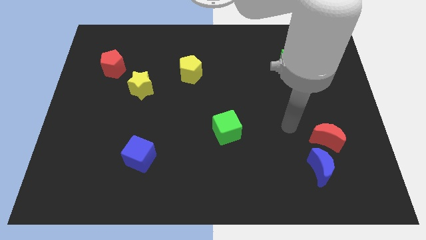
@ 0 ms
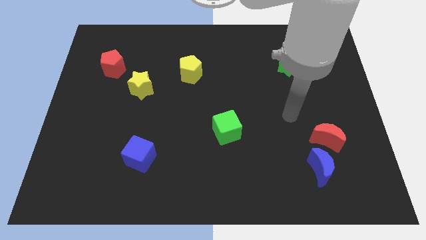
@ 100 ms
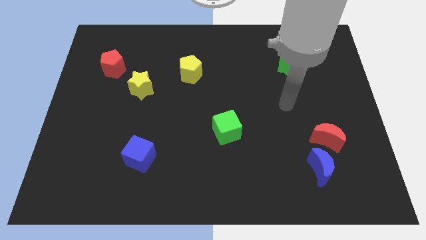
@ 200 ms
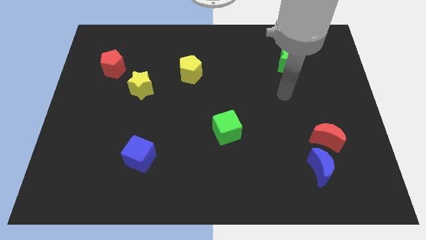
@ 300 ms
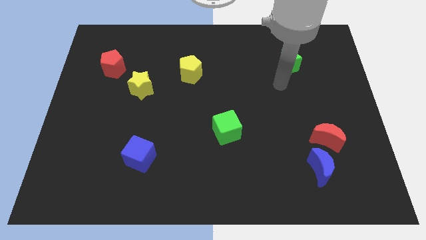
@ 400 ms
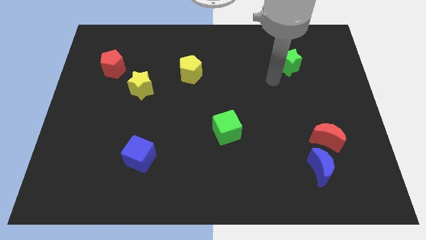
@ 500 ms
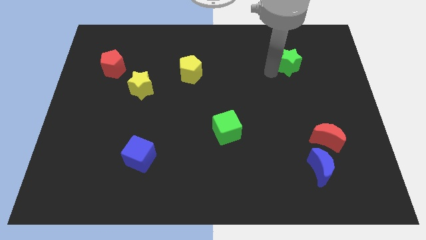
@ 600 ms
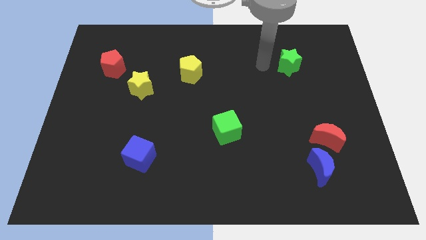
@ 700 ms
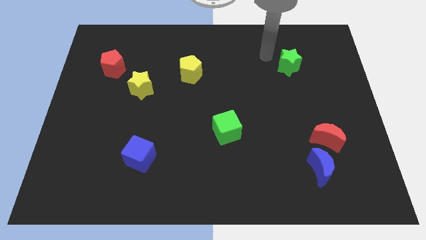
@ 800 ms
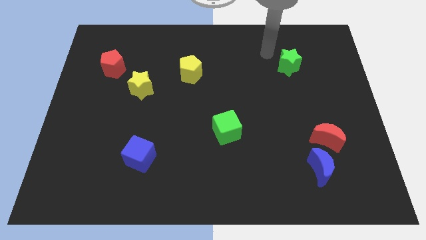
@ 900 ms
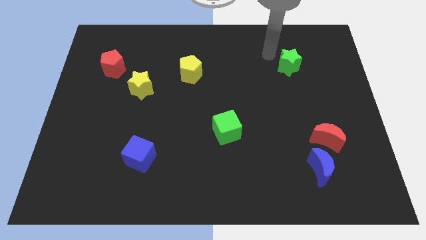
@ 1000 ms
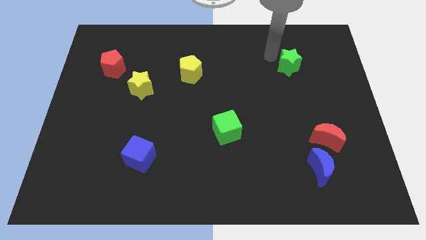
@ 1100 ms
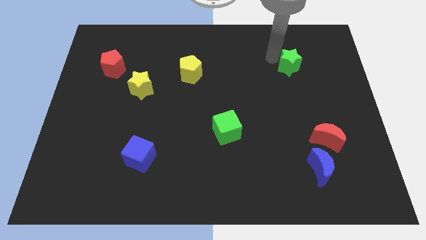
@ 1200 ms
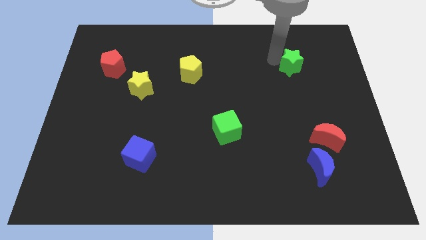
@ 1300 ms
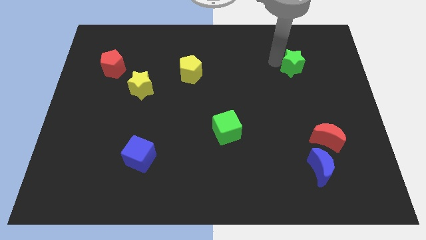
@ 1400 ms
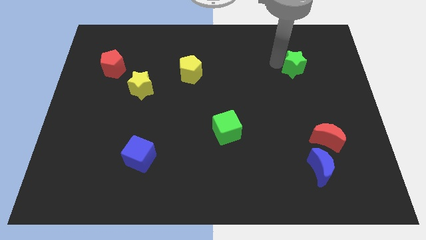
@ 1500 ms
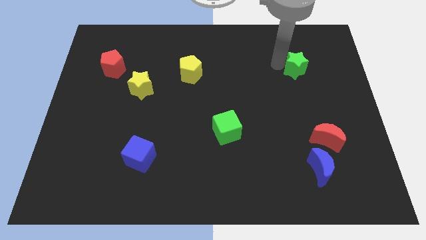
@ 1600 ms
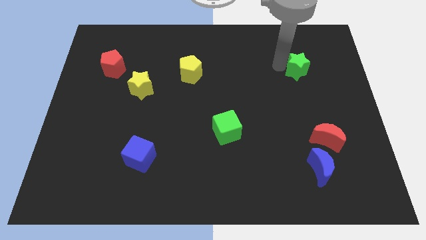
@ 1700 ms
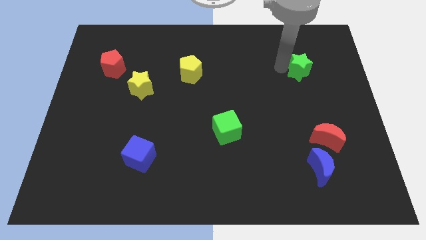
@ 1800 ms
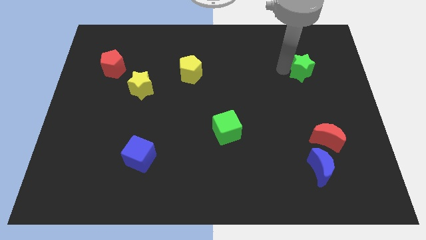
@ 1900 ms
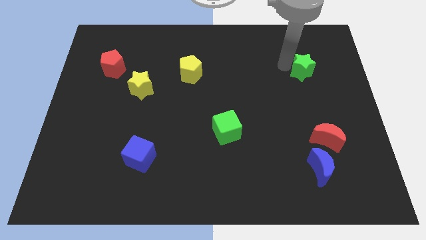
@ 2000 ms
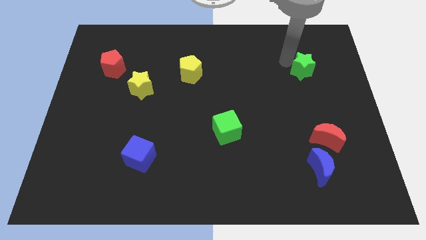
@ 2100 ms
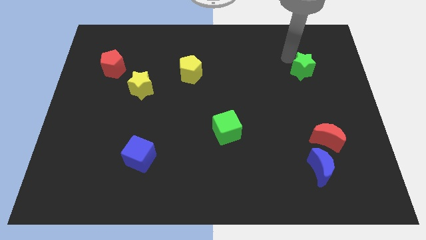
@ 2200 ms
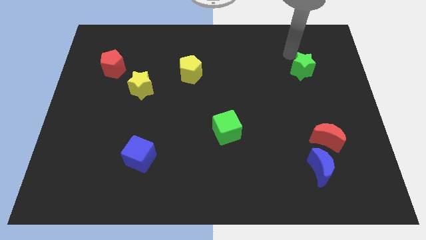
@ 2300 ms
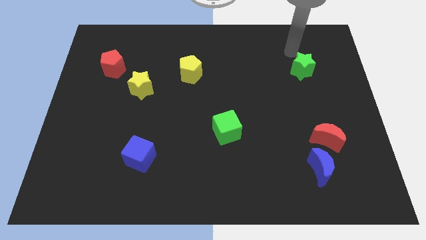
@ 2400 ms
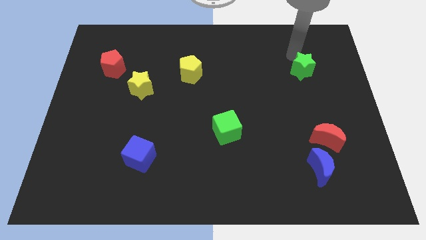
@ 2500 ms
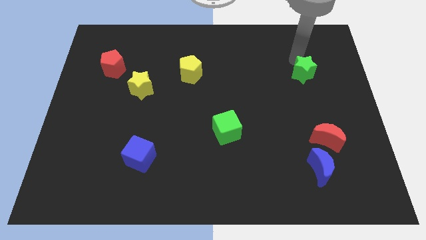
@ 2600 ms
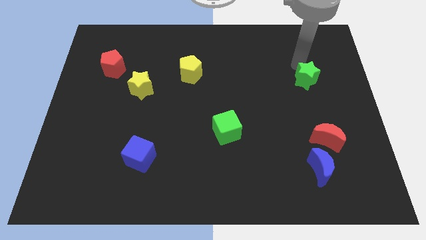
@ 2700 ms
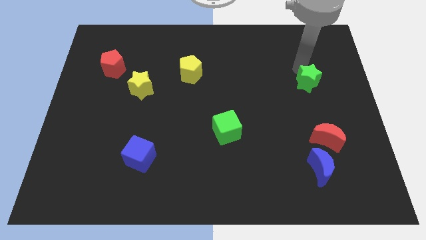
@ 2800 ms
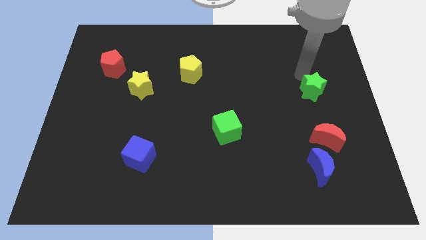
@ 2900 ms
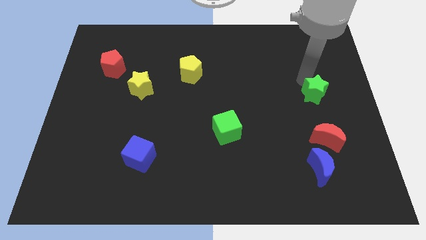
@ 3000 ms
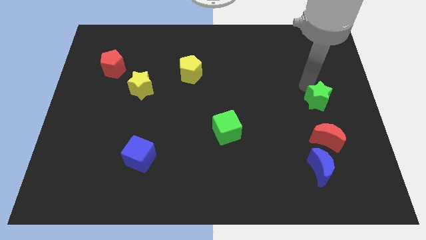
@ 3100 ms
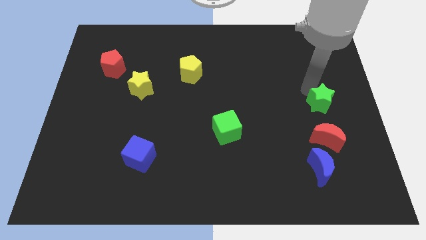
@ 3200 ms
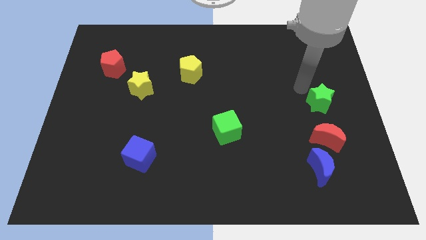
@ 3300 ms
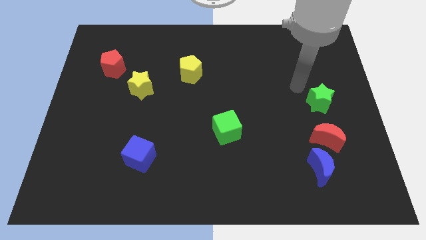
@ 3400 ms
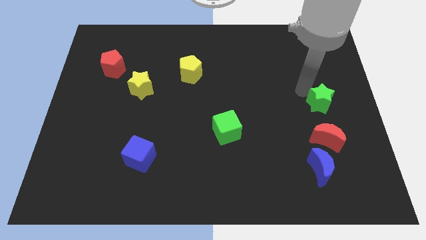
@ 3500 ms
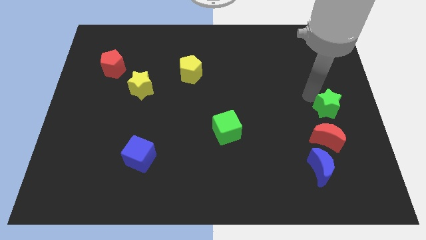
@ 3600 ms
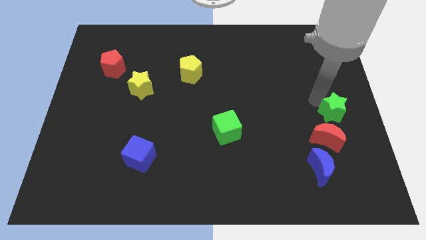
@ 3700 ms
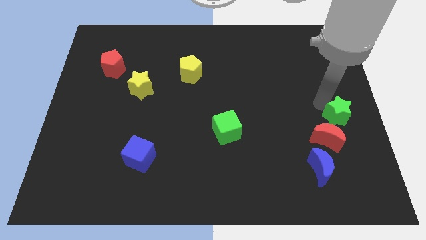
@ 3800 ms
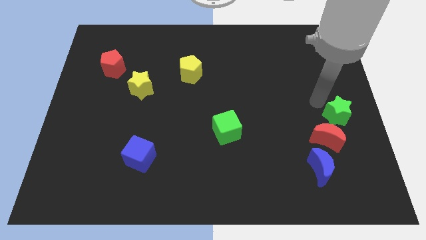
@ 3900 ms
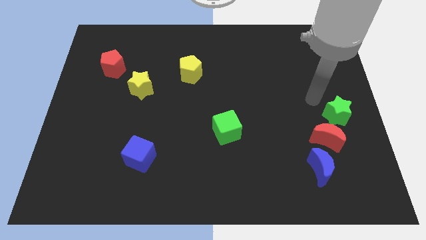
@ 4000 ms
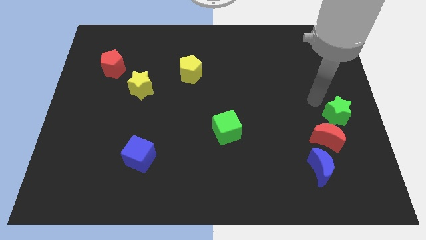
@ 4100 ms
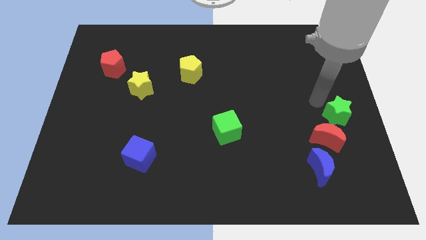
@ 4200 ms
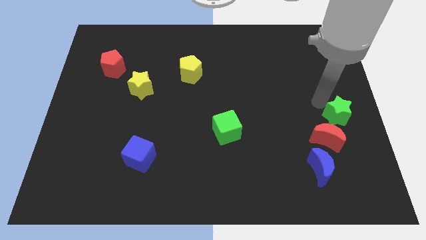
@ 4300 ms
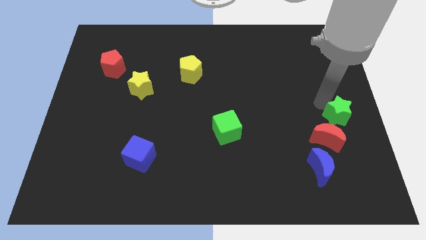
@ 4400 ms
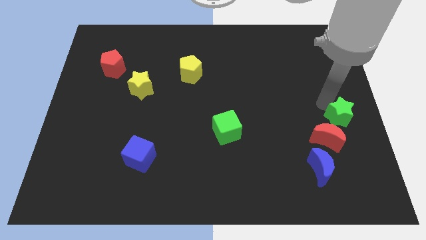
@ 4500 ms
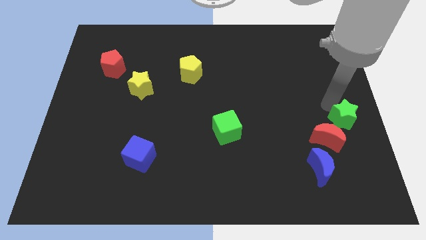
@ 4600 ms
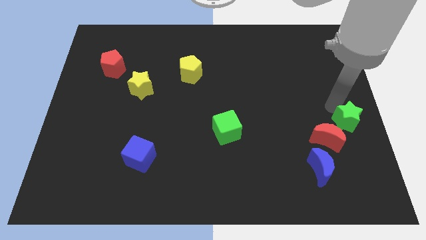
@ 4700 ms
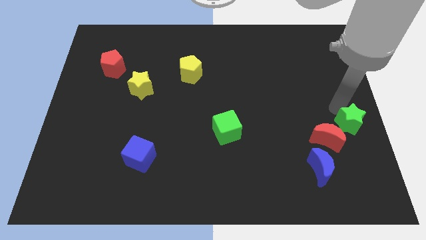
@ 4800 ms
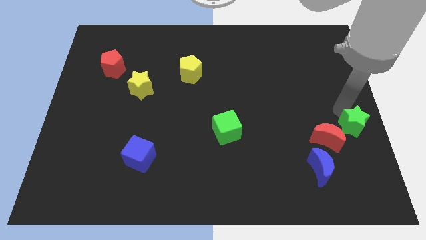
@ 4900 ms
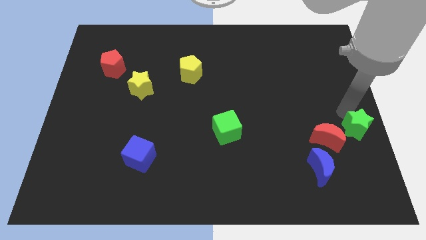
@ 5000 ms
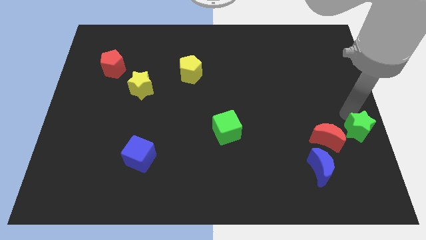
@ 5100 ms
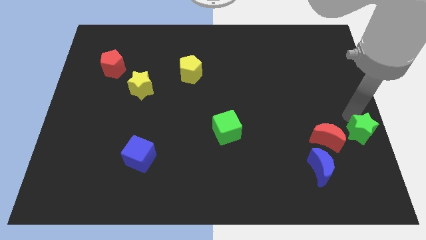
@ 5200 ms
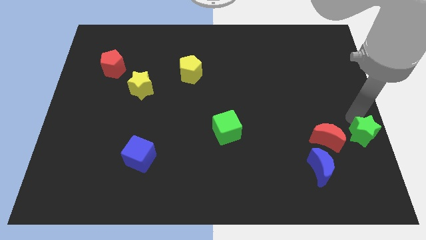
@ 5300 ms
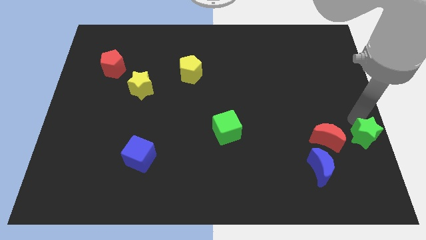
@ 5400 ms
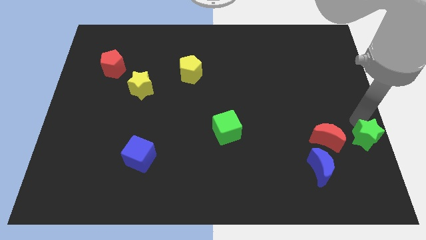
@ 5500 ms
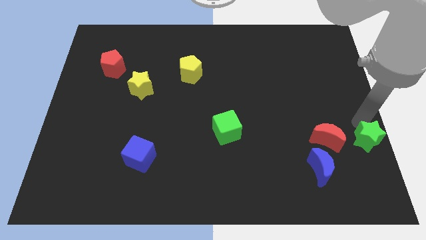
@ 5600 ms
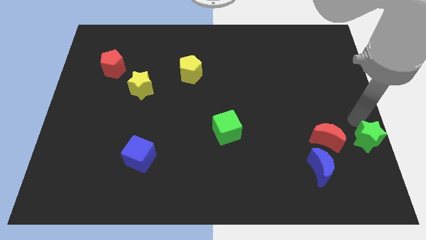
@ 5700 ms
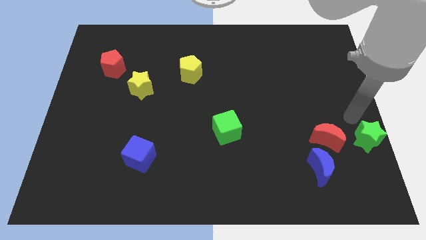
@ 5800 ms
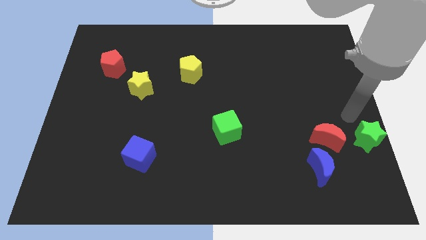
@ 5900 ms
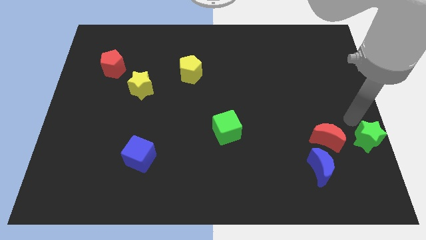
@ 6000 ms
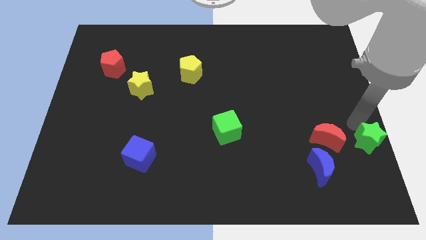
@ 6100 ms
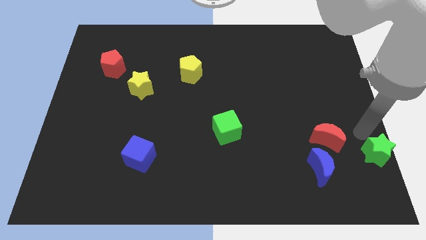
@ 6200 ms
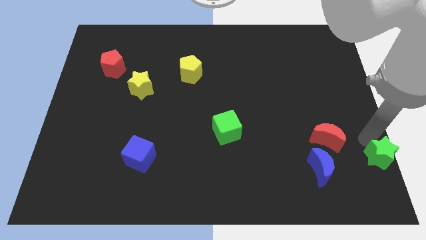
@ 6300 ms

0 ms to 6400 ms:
move the green star to the bottom right corner
